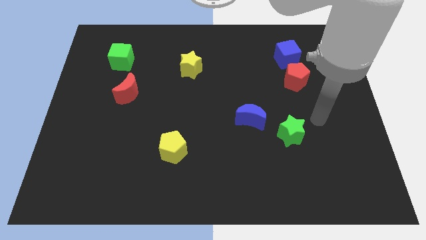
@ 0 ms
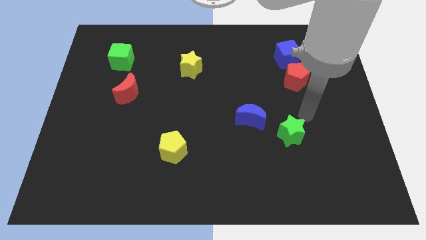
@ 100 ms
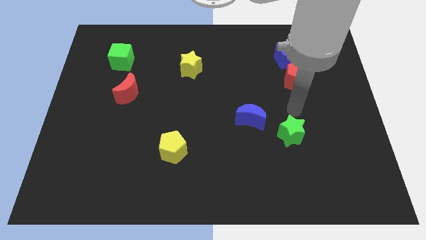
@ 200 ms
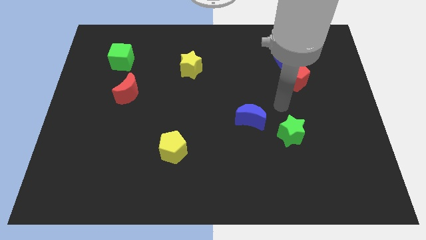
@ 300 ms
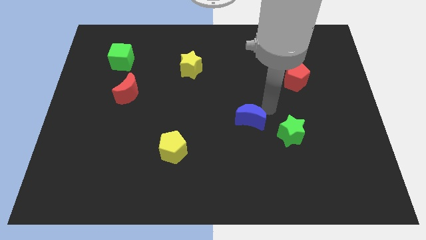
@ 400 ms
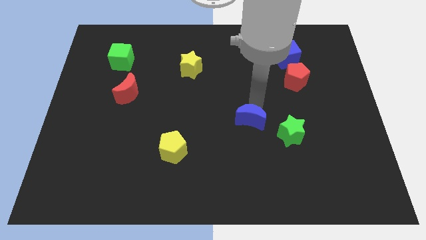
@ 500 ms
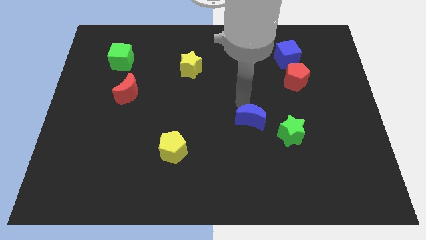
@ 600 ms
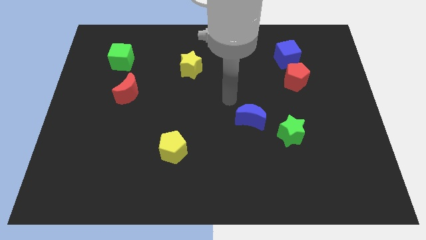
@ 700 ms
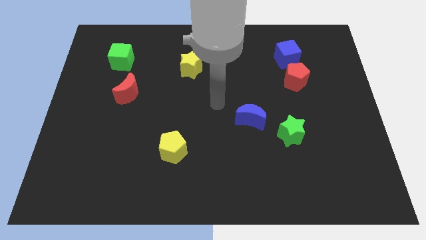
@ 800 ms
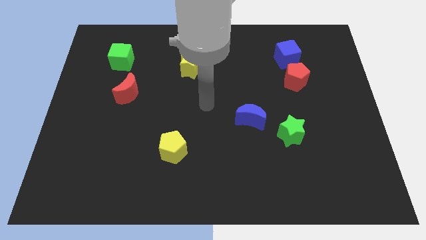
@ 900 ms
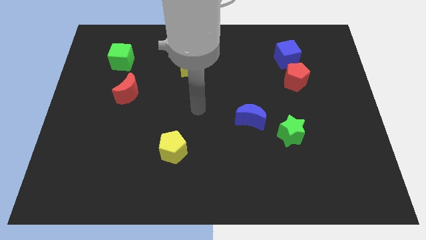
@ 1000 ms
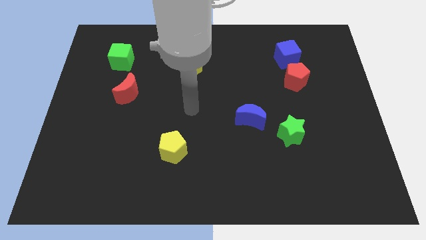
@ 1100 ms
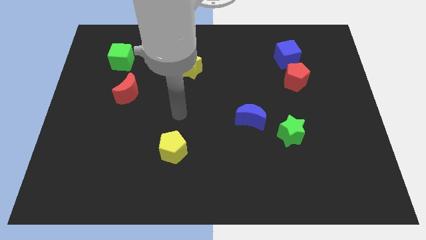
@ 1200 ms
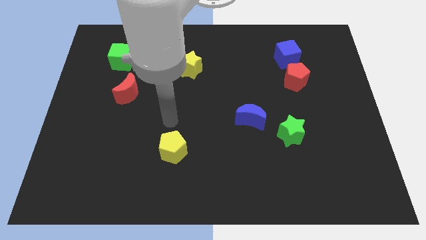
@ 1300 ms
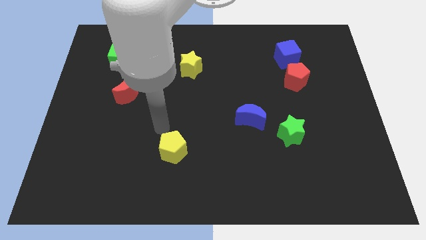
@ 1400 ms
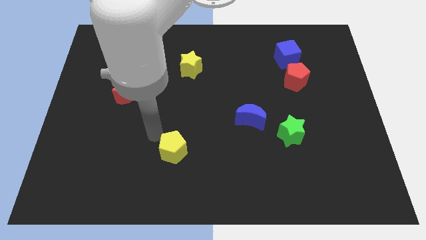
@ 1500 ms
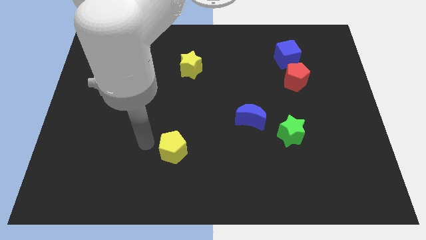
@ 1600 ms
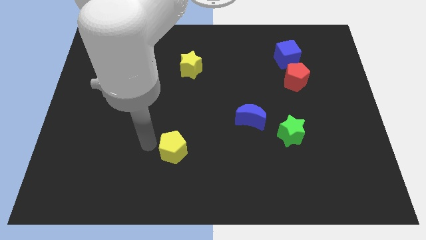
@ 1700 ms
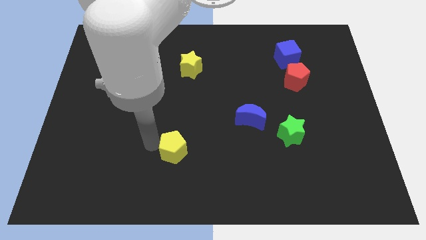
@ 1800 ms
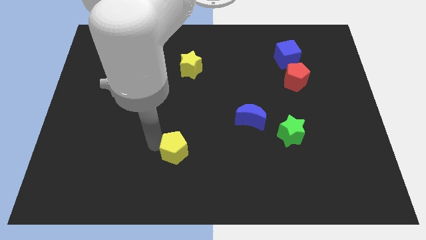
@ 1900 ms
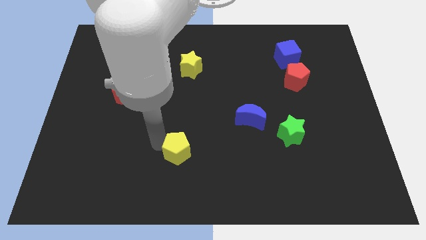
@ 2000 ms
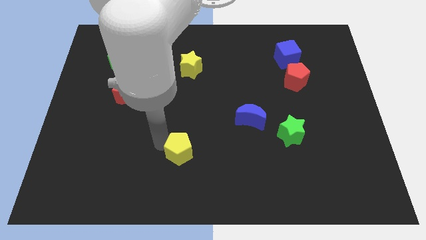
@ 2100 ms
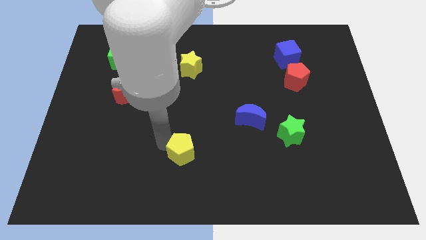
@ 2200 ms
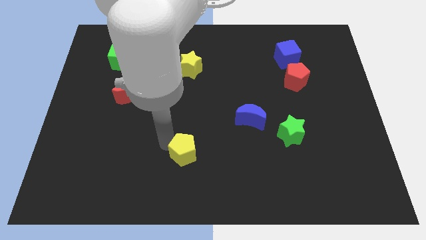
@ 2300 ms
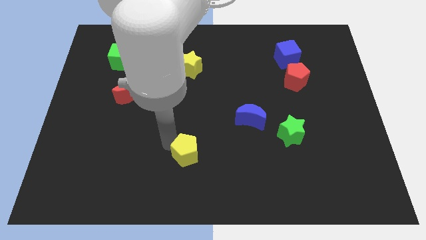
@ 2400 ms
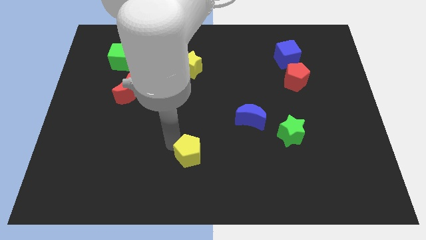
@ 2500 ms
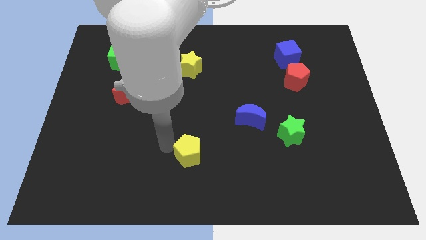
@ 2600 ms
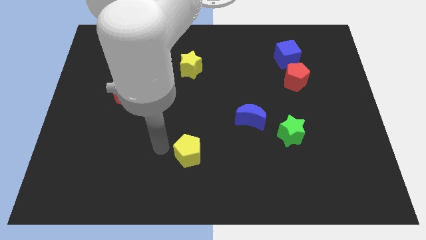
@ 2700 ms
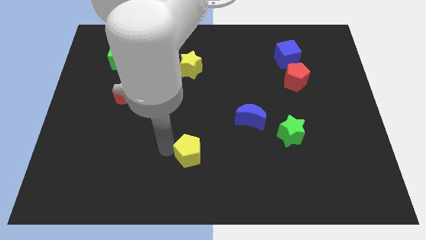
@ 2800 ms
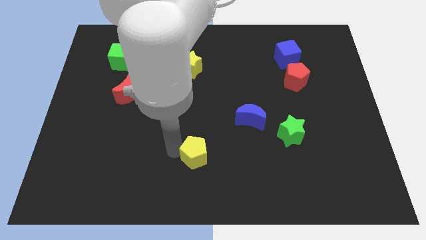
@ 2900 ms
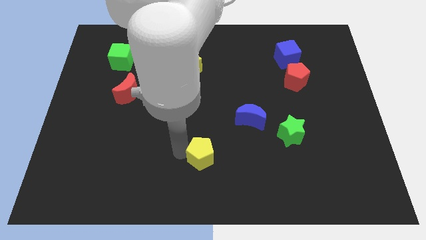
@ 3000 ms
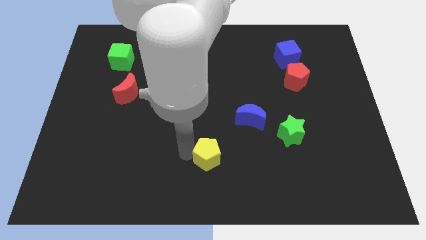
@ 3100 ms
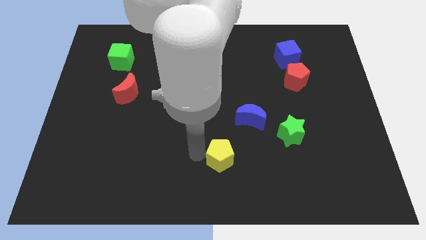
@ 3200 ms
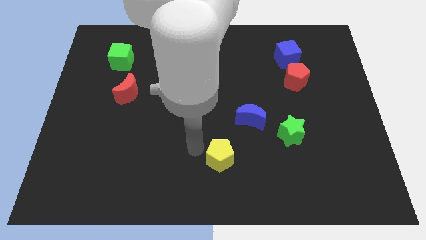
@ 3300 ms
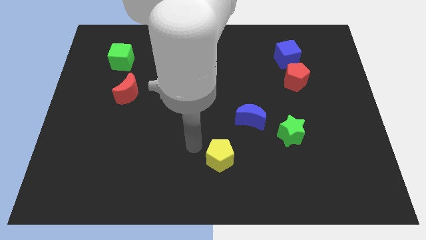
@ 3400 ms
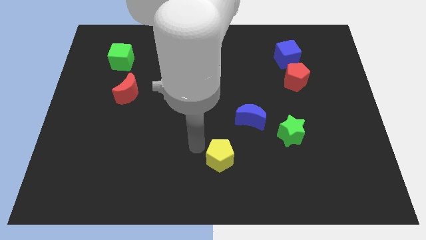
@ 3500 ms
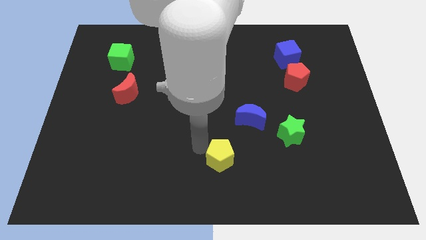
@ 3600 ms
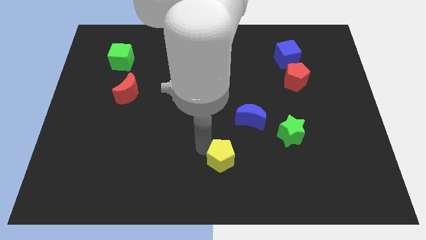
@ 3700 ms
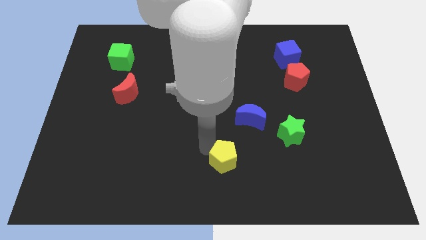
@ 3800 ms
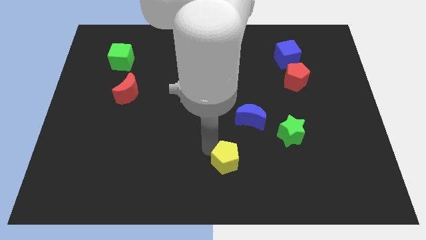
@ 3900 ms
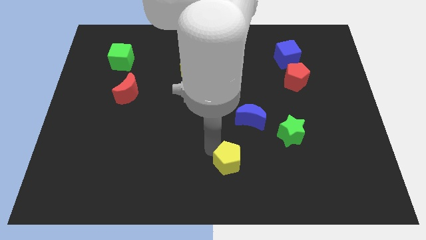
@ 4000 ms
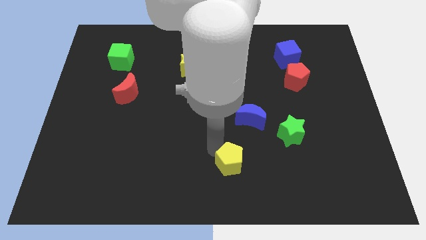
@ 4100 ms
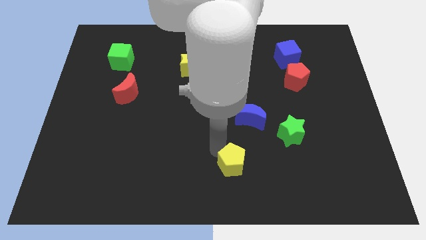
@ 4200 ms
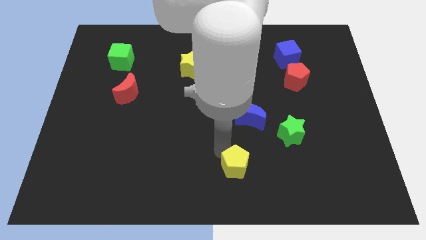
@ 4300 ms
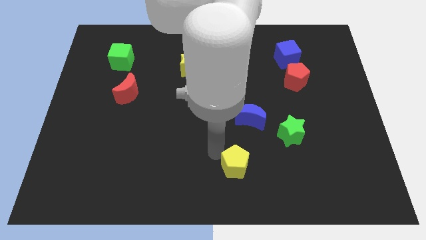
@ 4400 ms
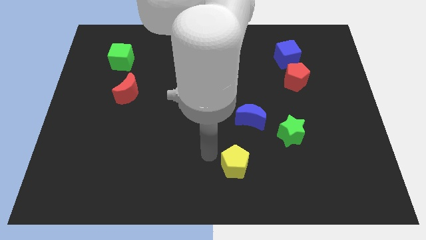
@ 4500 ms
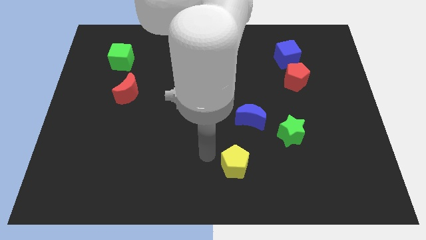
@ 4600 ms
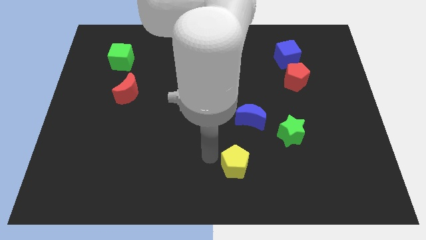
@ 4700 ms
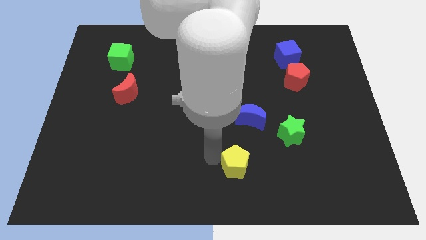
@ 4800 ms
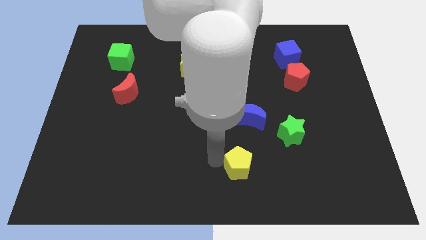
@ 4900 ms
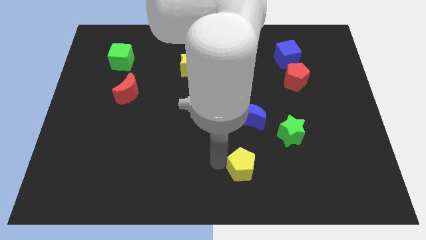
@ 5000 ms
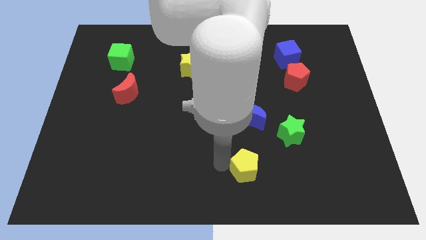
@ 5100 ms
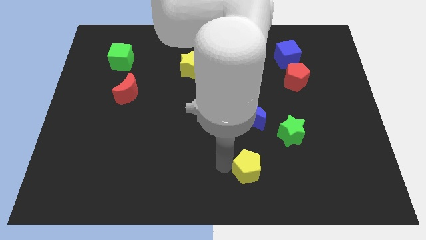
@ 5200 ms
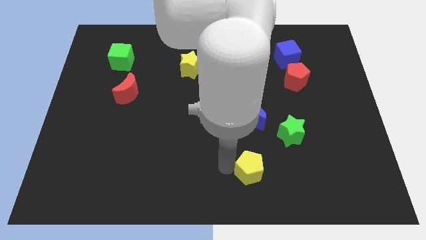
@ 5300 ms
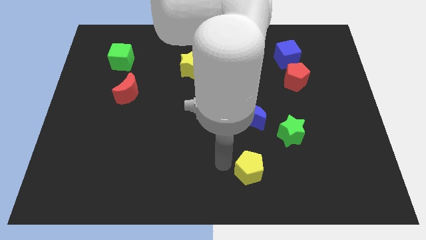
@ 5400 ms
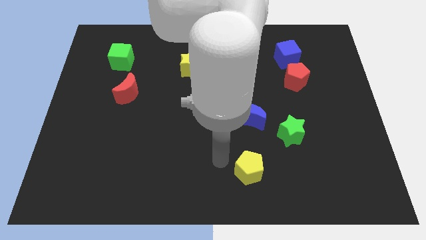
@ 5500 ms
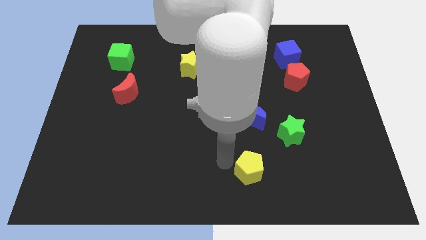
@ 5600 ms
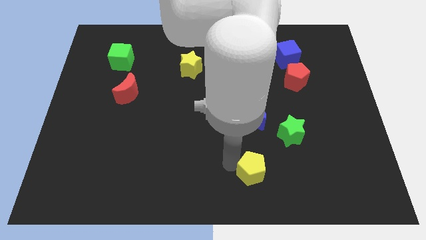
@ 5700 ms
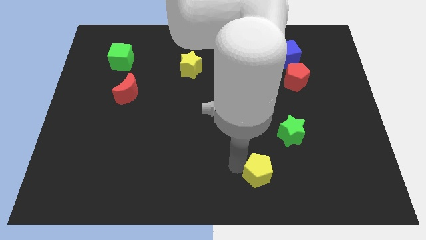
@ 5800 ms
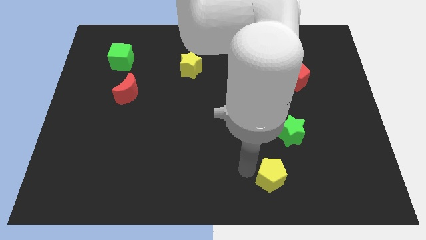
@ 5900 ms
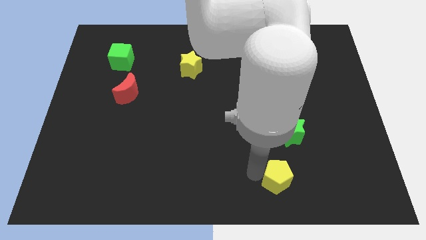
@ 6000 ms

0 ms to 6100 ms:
slide the yellow pentagon to the bottom side of the green star
